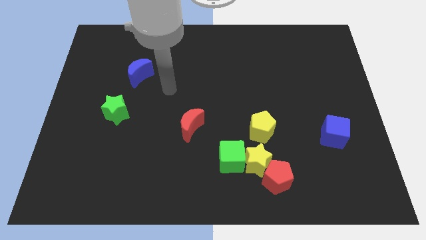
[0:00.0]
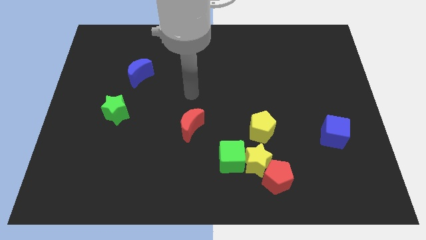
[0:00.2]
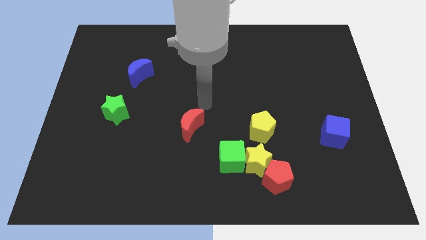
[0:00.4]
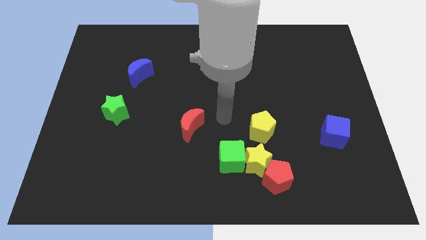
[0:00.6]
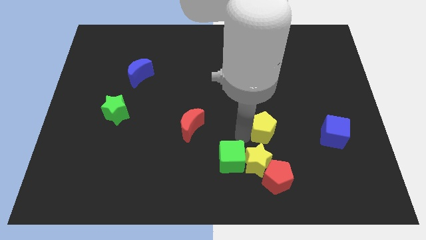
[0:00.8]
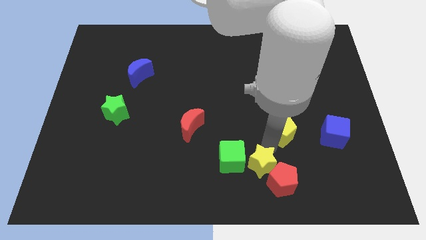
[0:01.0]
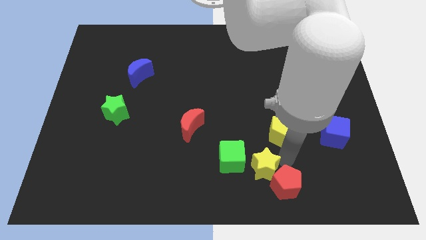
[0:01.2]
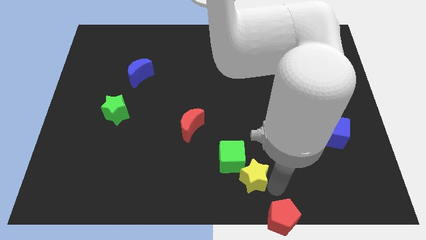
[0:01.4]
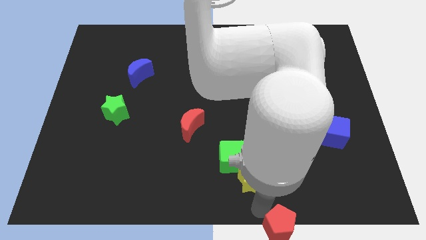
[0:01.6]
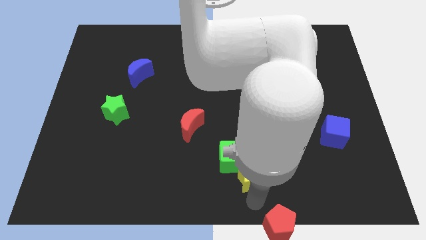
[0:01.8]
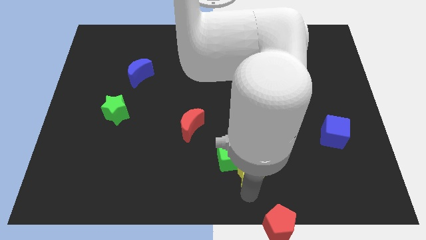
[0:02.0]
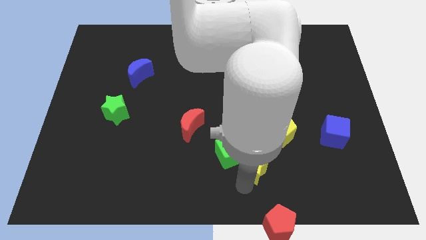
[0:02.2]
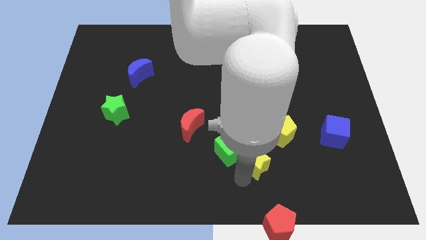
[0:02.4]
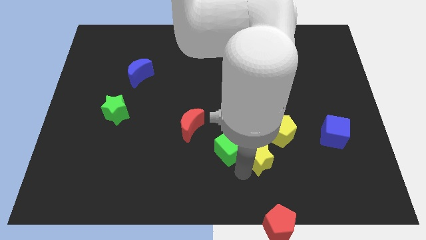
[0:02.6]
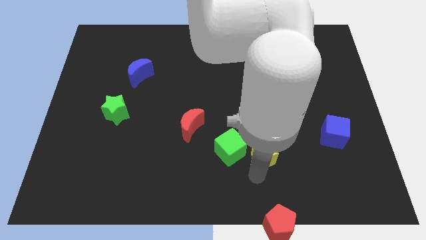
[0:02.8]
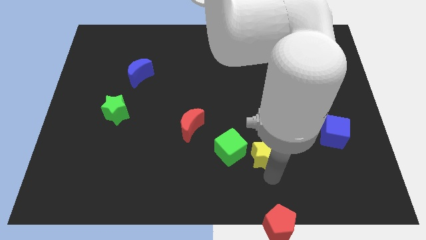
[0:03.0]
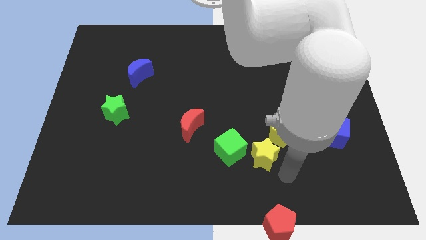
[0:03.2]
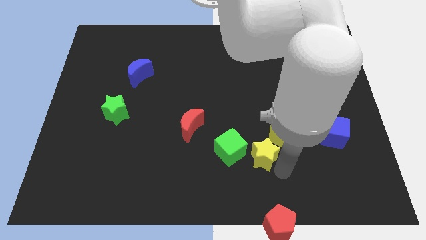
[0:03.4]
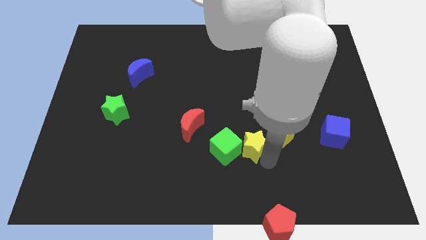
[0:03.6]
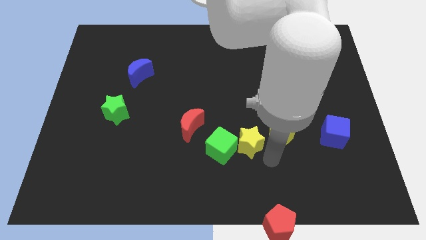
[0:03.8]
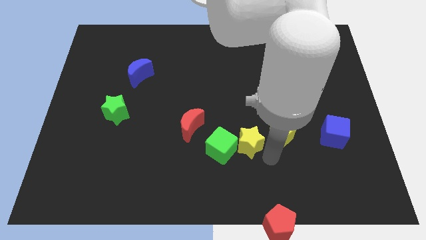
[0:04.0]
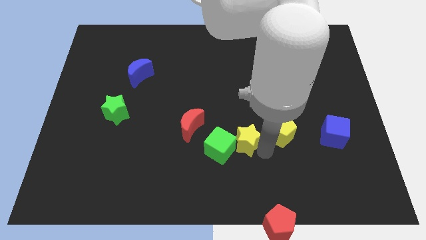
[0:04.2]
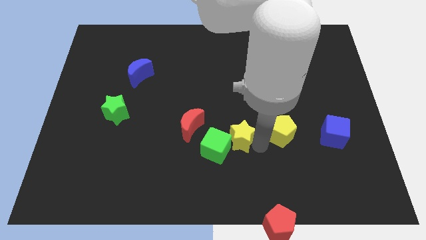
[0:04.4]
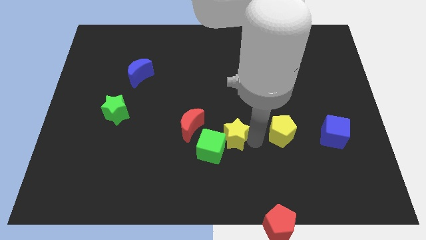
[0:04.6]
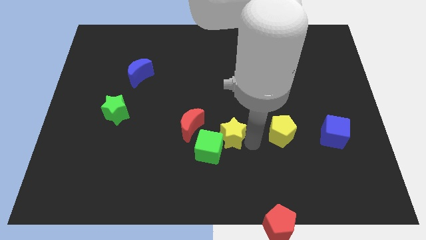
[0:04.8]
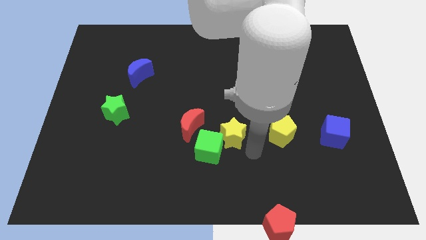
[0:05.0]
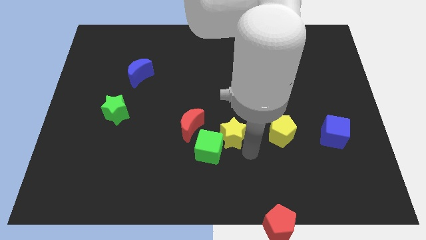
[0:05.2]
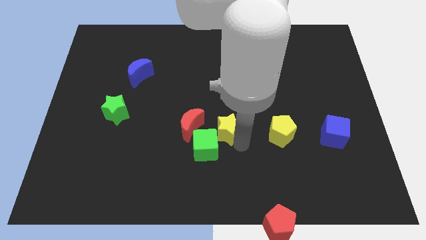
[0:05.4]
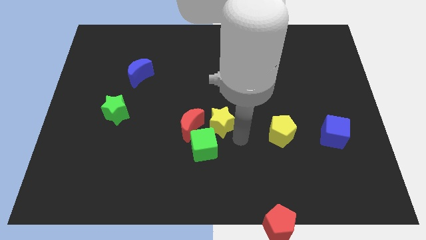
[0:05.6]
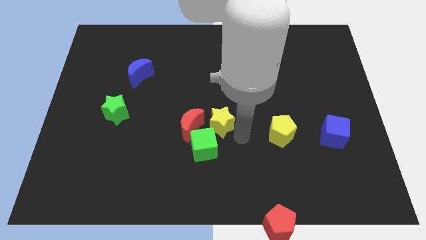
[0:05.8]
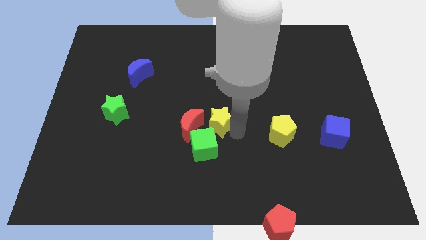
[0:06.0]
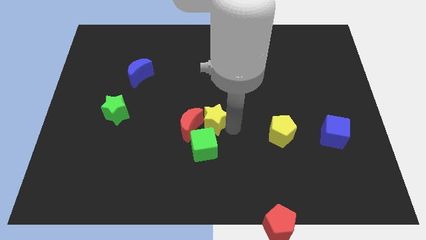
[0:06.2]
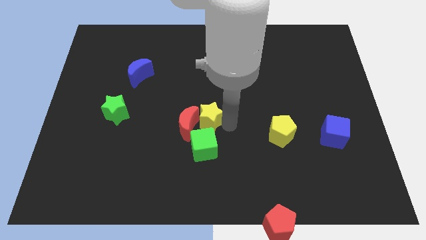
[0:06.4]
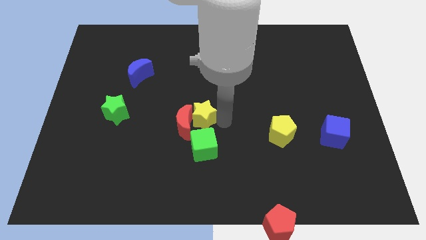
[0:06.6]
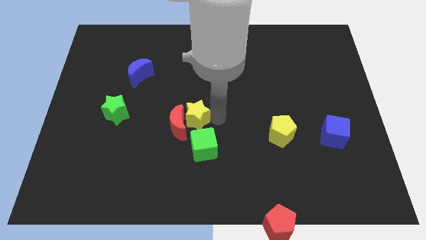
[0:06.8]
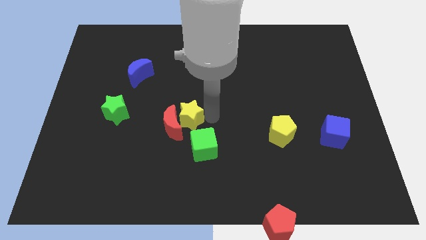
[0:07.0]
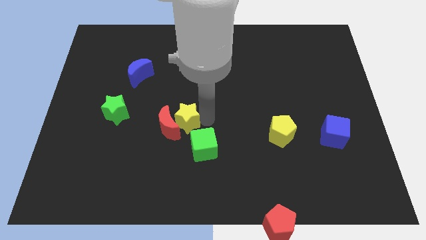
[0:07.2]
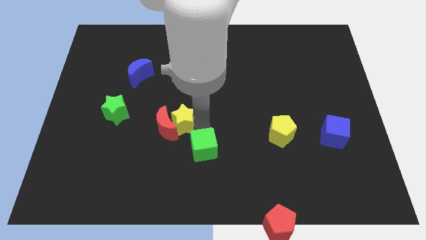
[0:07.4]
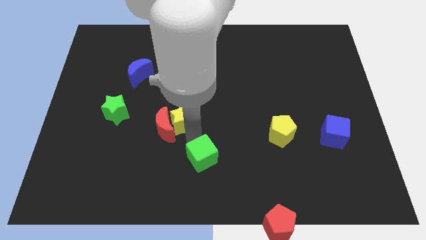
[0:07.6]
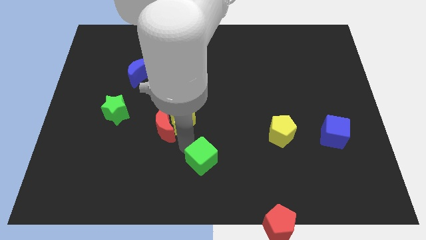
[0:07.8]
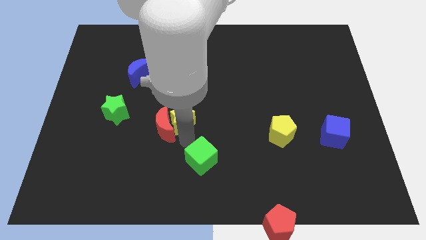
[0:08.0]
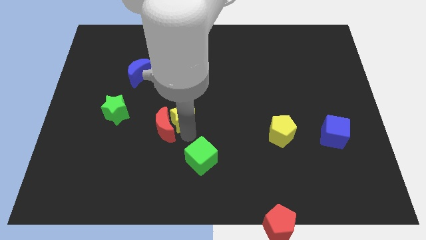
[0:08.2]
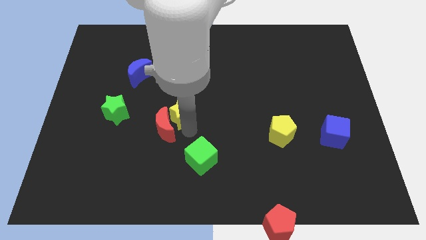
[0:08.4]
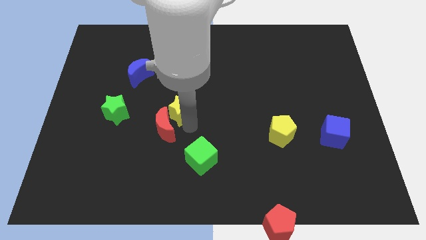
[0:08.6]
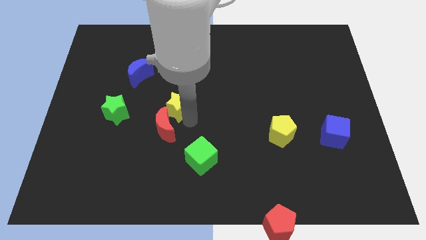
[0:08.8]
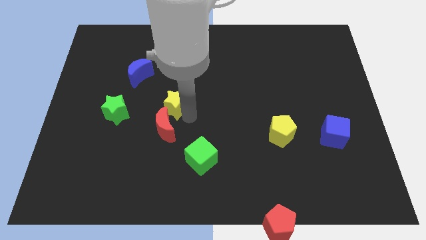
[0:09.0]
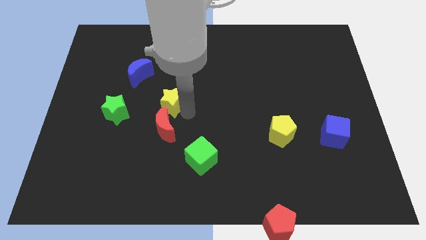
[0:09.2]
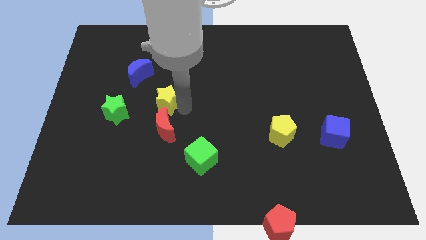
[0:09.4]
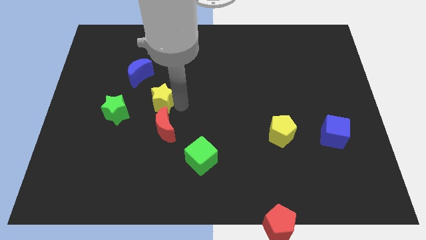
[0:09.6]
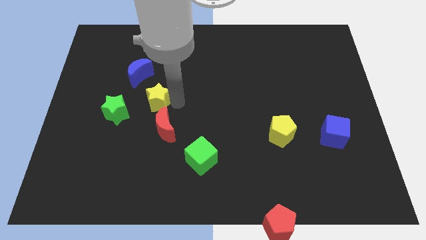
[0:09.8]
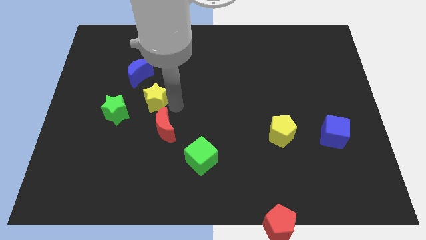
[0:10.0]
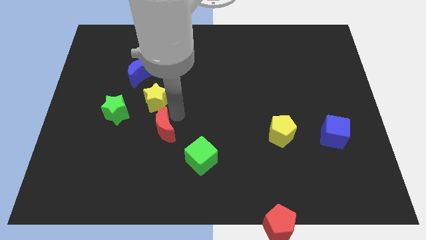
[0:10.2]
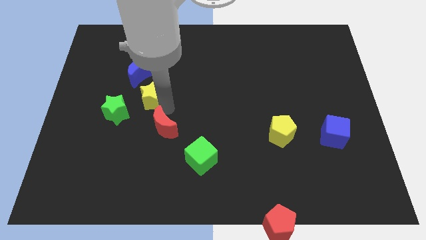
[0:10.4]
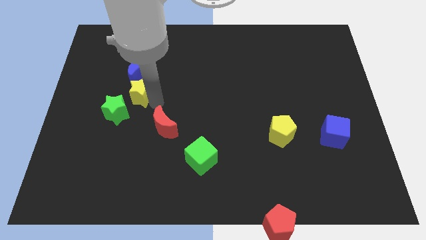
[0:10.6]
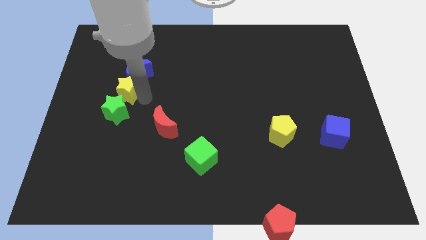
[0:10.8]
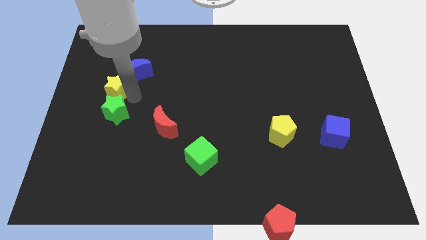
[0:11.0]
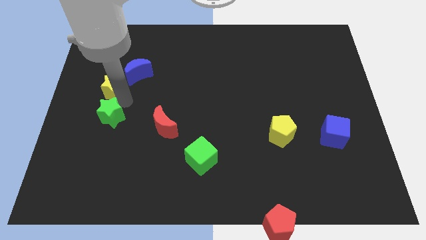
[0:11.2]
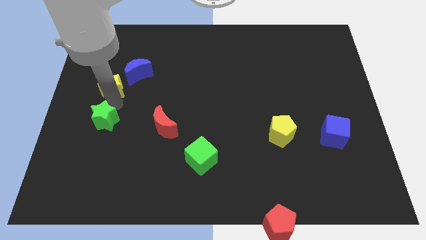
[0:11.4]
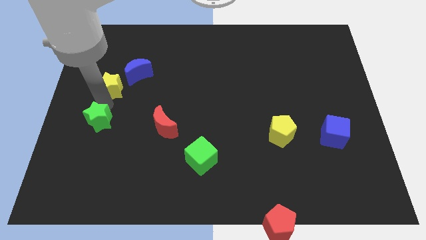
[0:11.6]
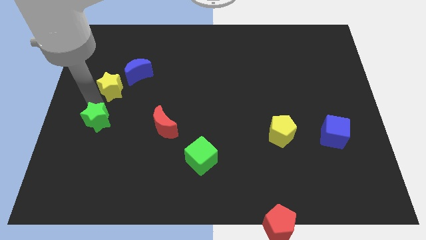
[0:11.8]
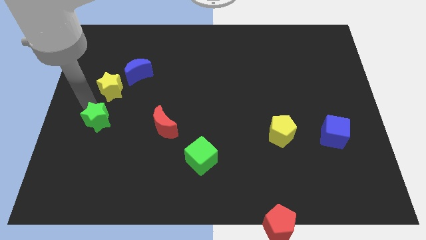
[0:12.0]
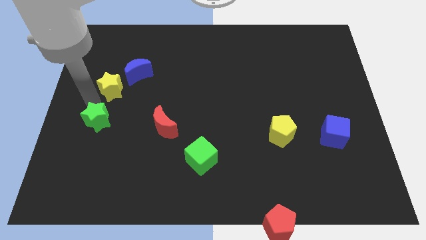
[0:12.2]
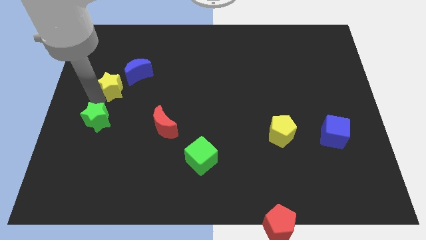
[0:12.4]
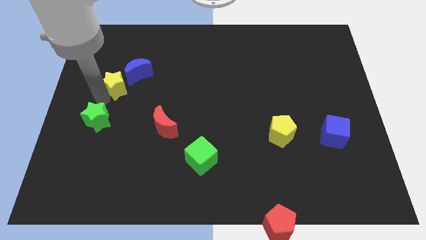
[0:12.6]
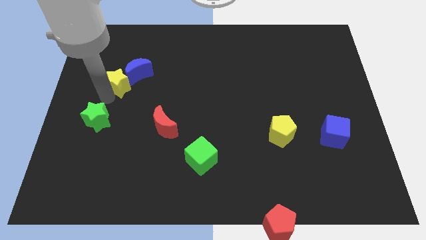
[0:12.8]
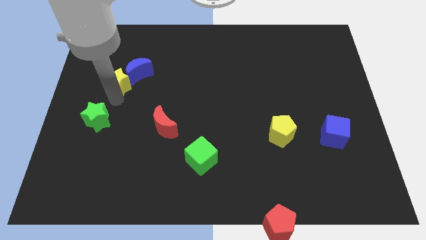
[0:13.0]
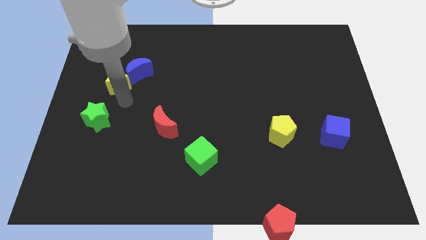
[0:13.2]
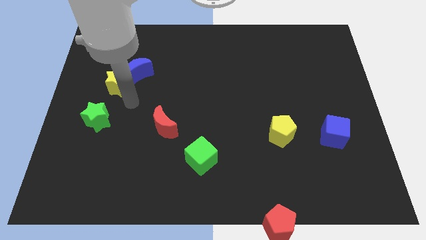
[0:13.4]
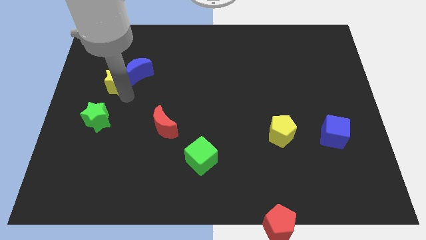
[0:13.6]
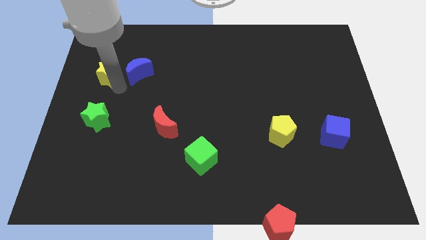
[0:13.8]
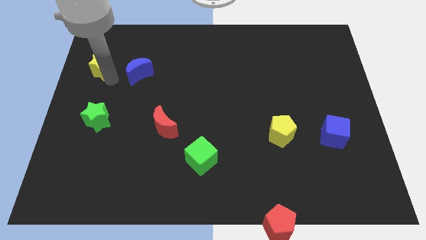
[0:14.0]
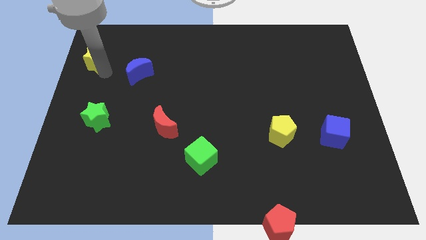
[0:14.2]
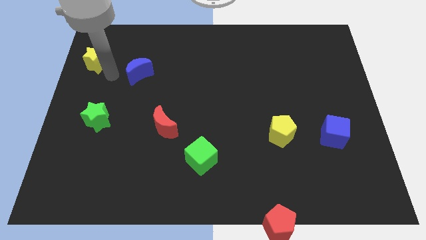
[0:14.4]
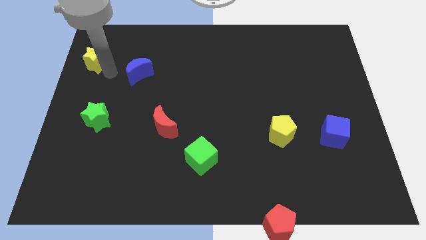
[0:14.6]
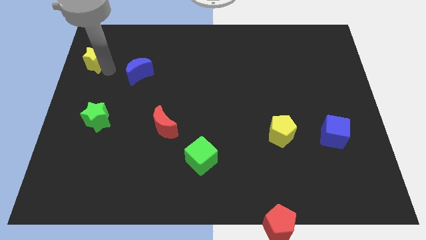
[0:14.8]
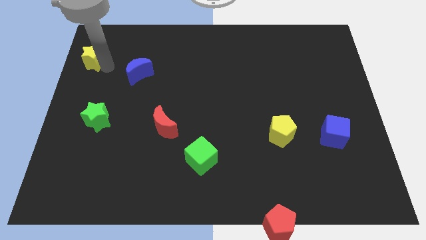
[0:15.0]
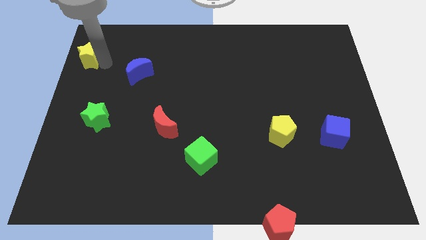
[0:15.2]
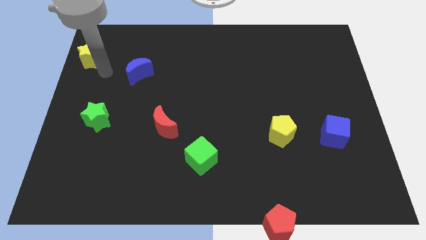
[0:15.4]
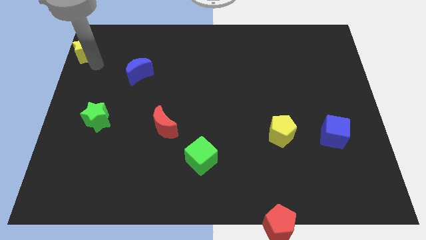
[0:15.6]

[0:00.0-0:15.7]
move the yellow star to the top left corner
